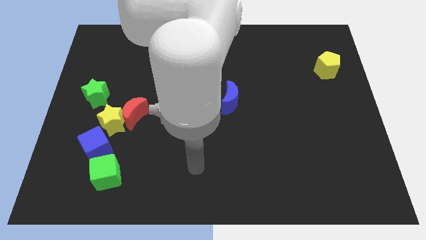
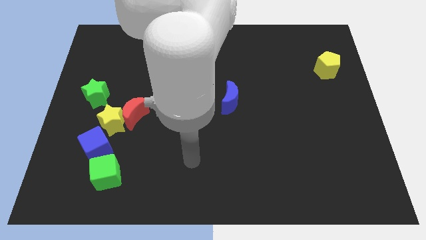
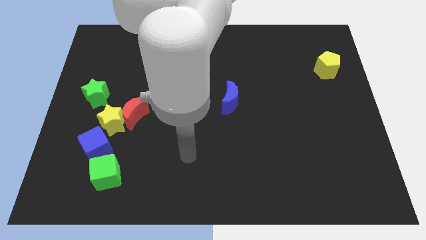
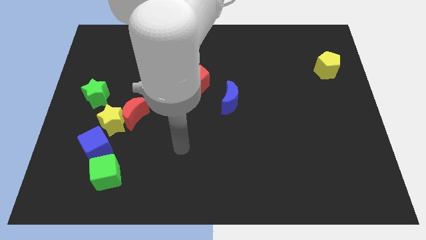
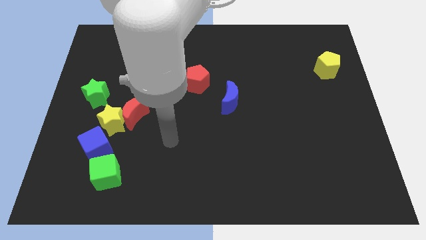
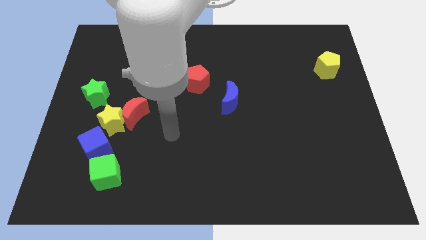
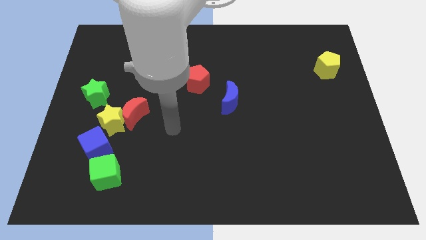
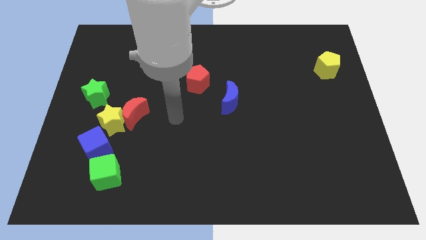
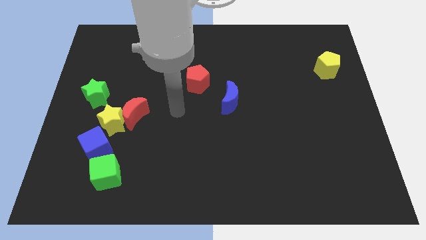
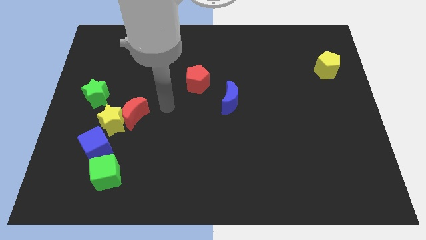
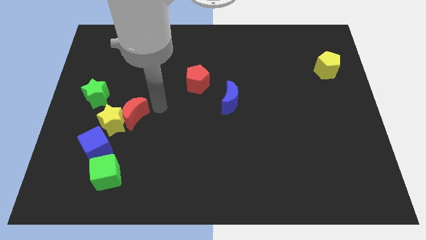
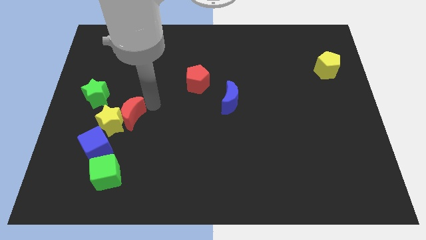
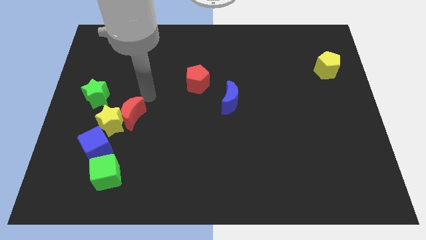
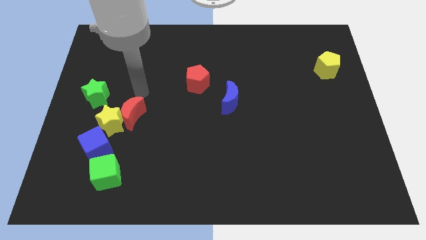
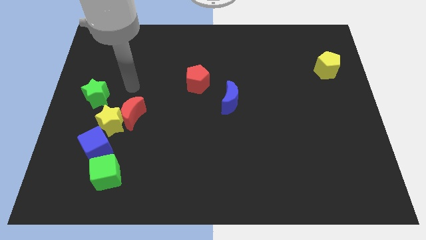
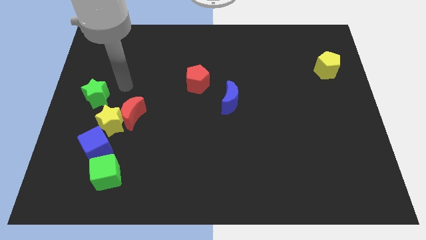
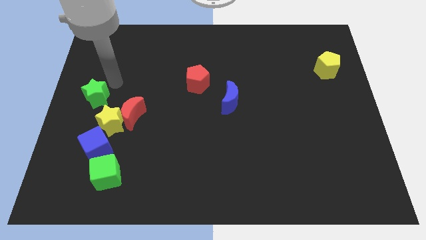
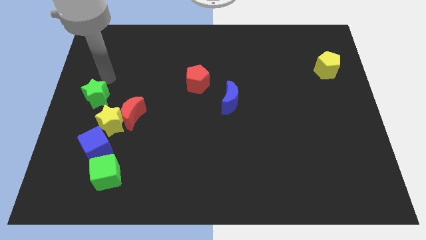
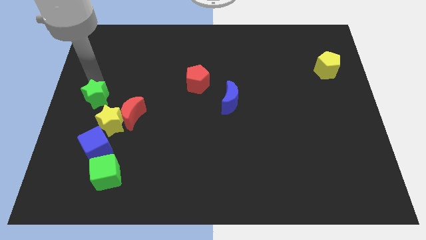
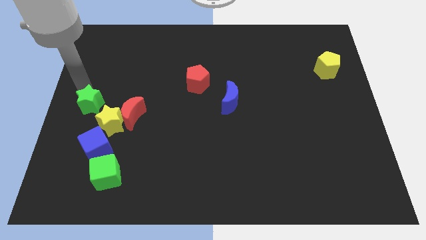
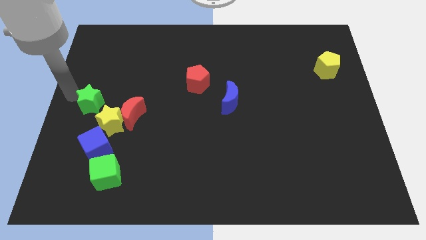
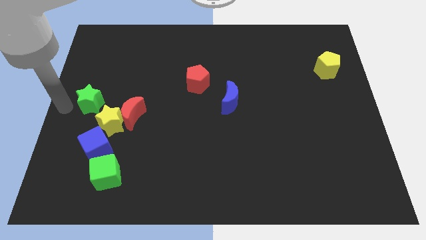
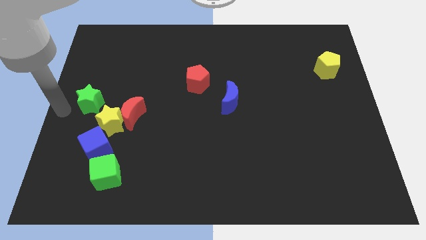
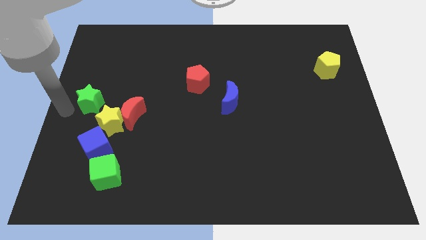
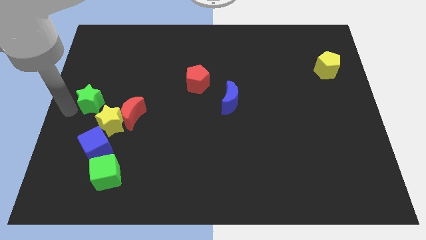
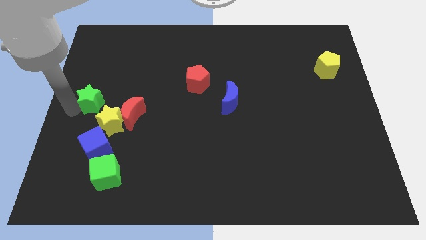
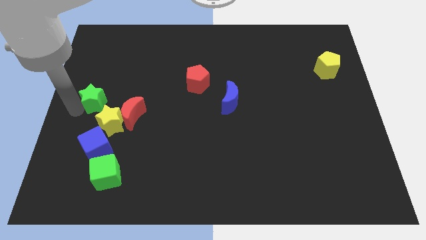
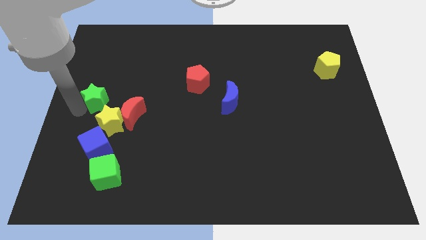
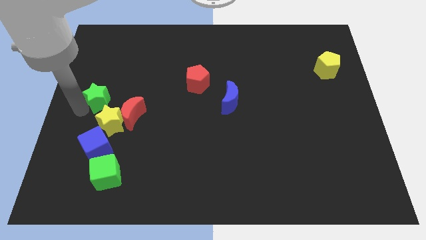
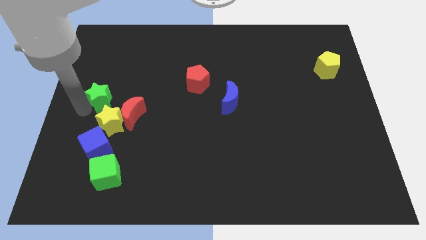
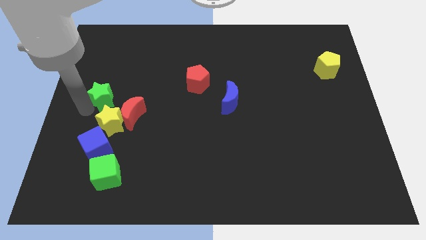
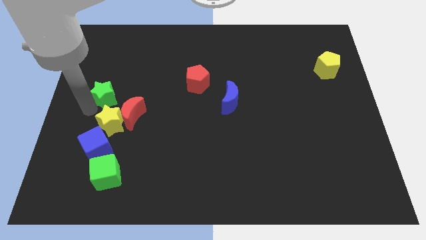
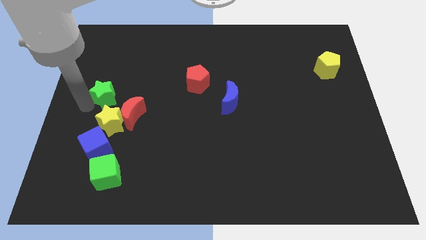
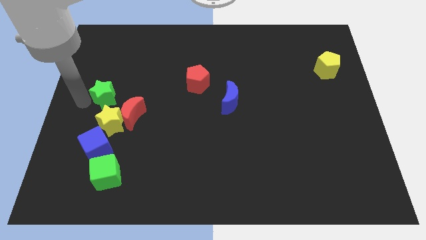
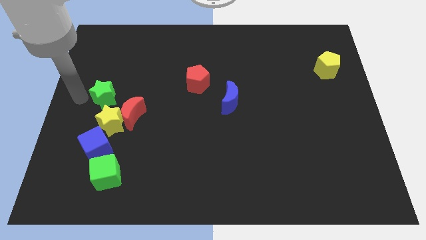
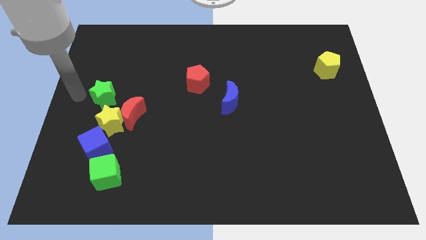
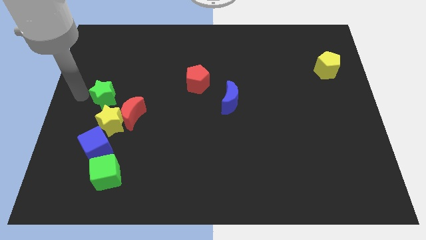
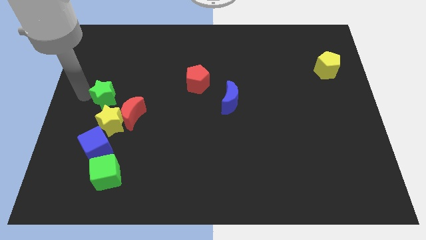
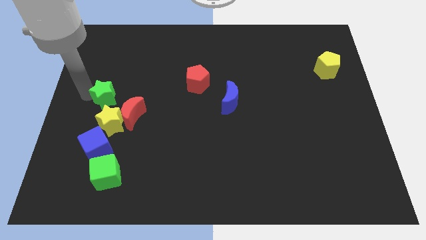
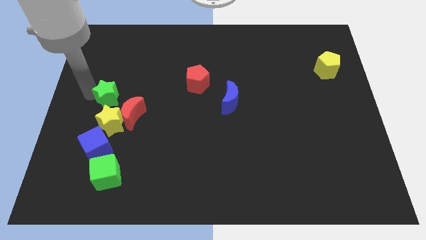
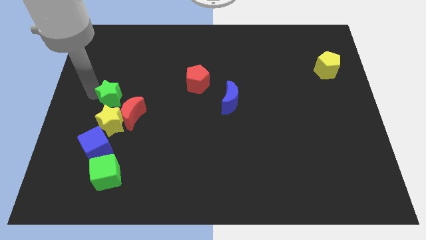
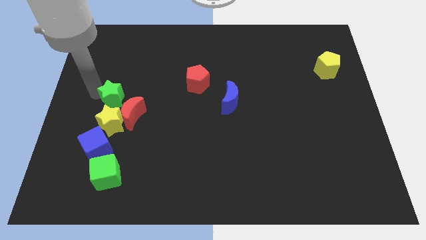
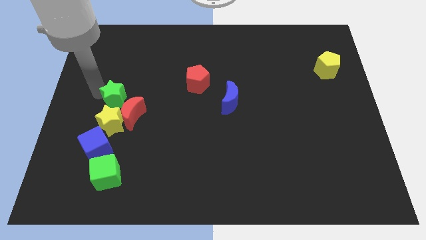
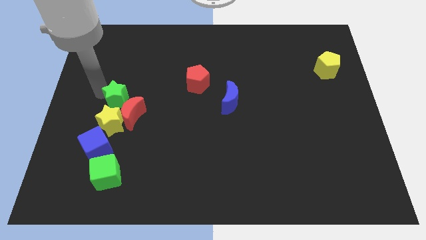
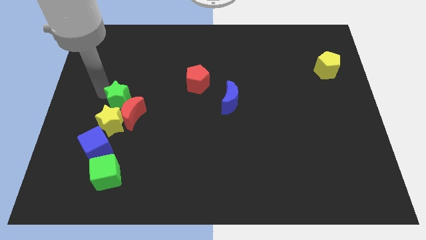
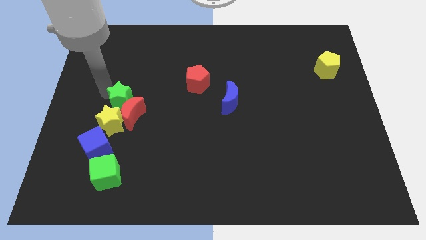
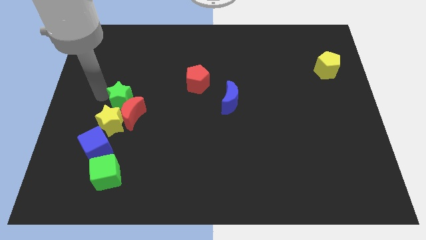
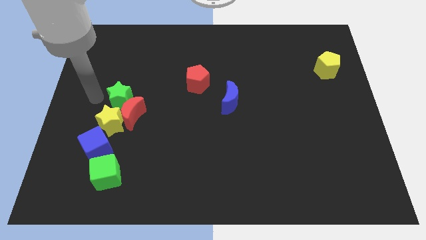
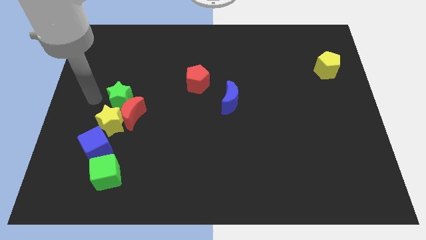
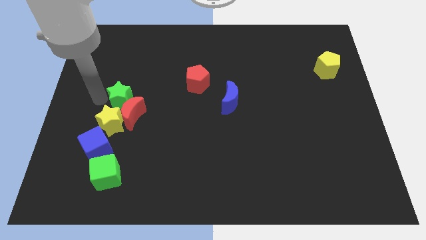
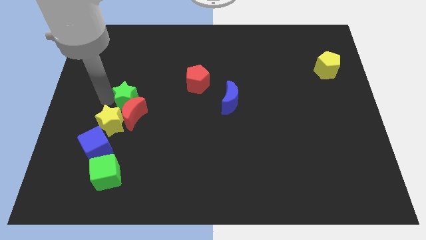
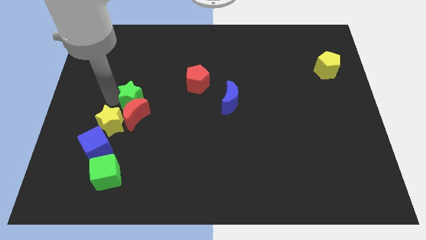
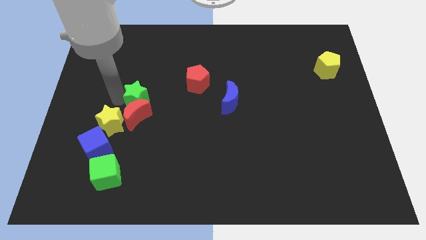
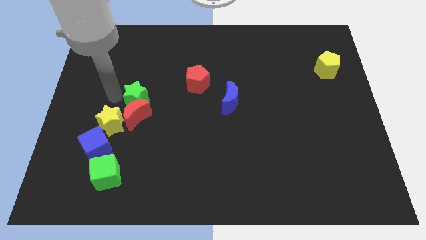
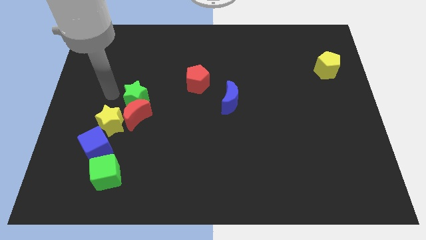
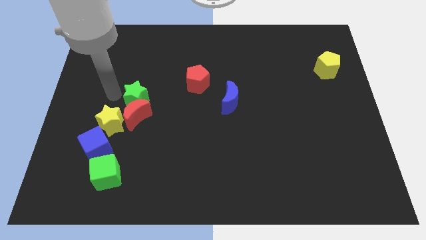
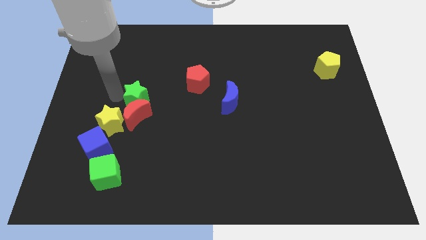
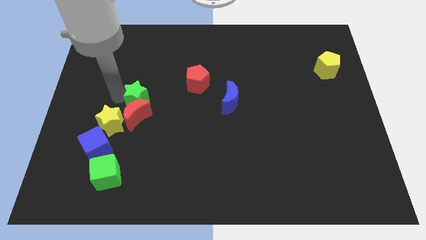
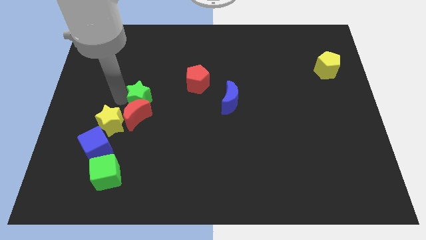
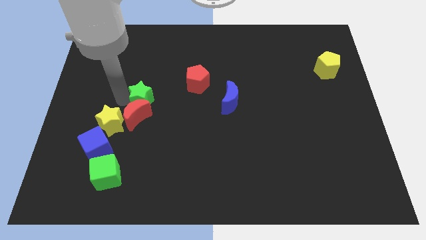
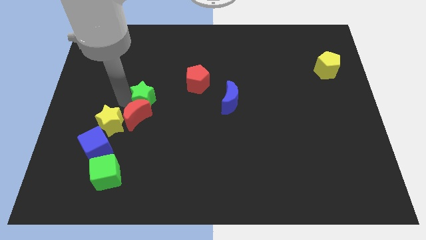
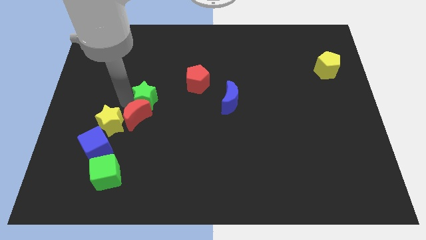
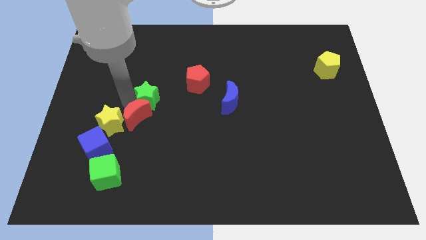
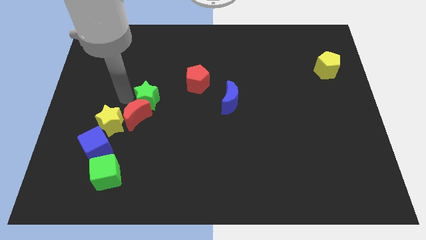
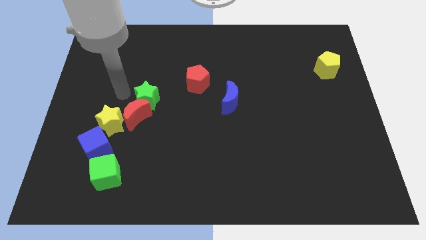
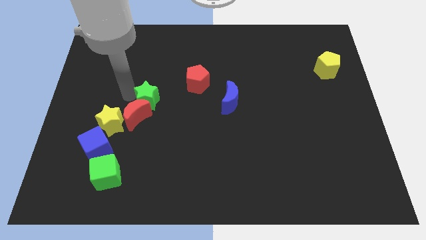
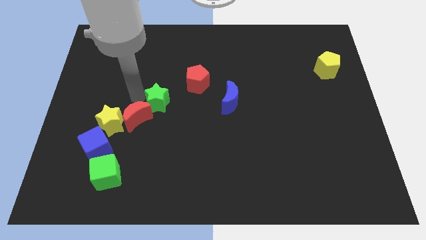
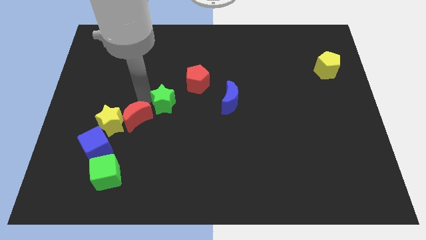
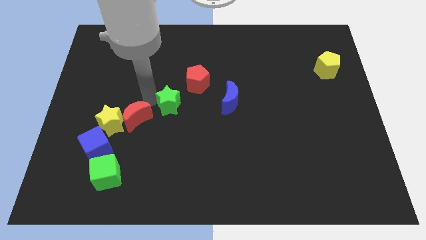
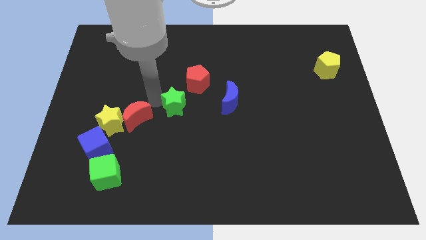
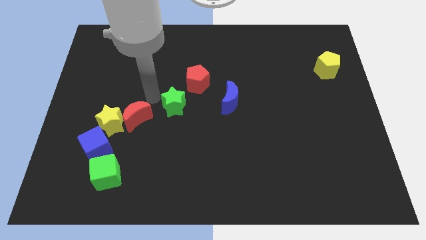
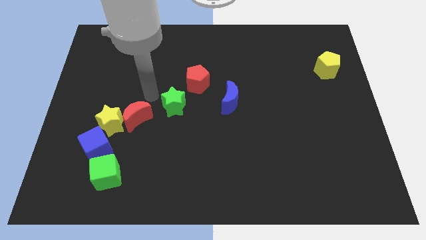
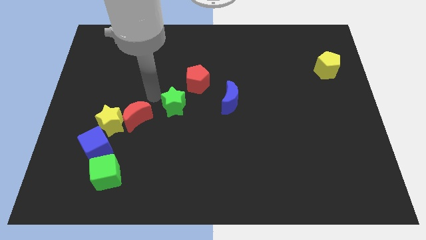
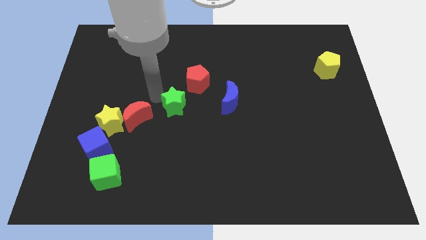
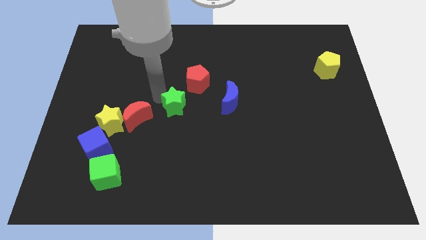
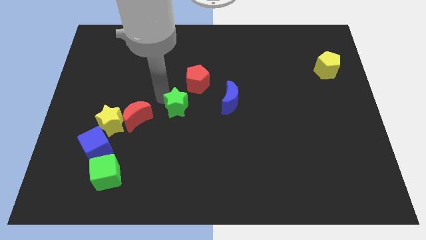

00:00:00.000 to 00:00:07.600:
put the green star to the bottom side of the red pentagon
